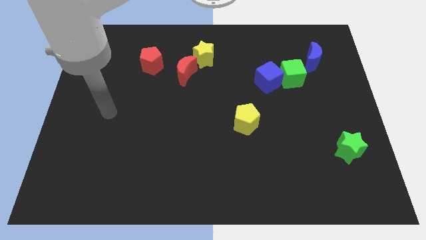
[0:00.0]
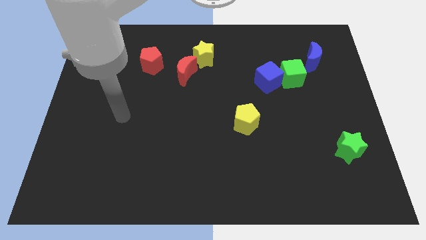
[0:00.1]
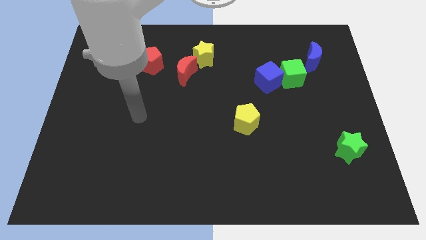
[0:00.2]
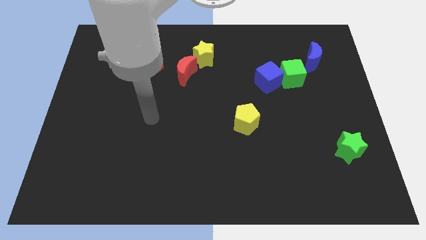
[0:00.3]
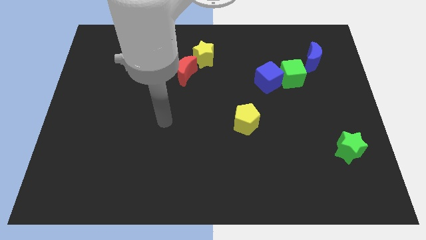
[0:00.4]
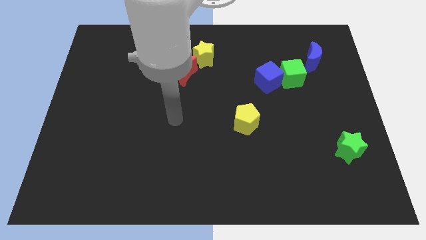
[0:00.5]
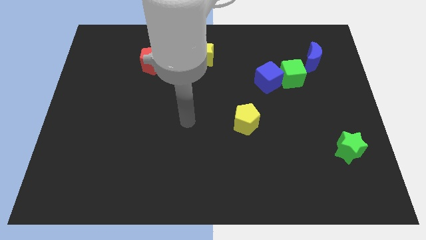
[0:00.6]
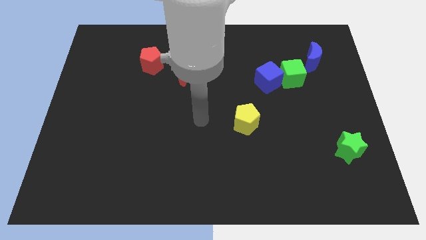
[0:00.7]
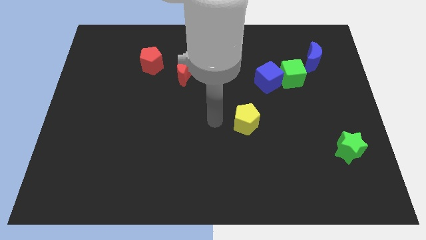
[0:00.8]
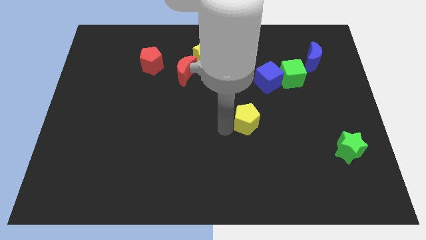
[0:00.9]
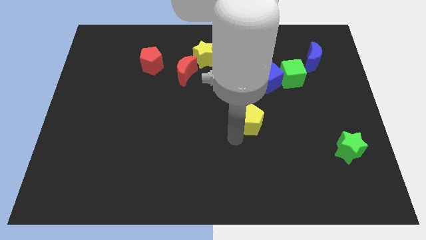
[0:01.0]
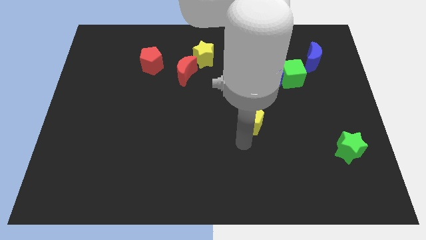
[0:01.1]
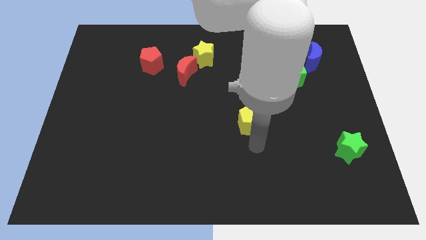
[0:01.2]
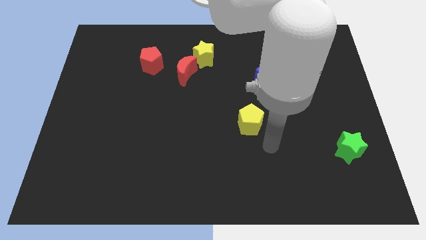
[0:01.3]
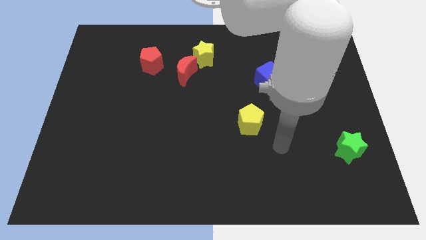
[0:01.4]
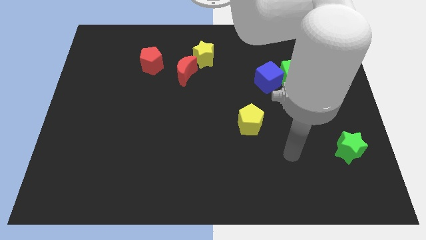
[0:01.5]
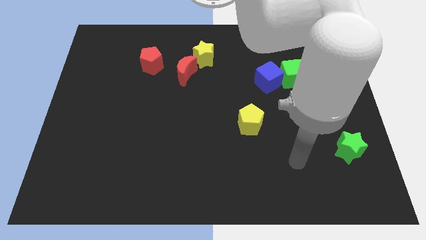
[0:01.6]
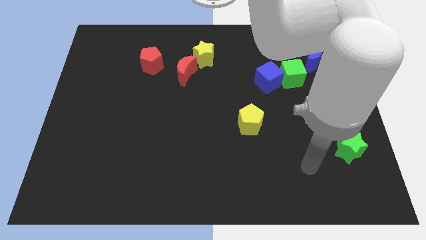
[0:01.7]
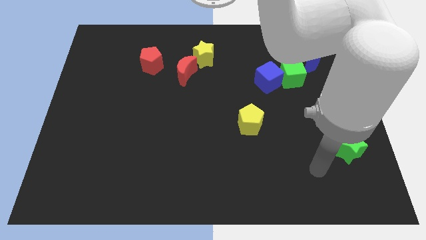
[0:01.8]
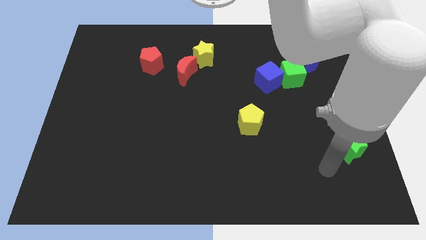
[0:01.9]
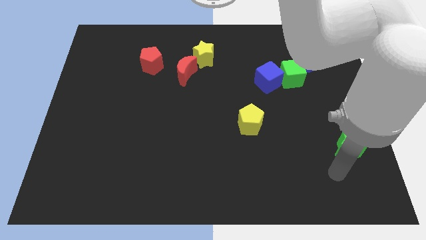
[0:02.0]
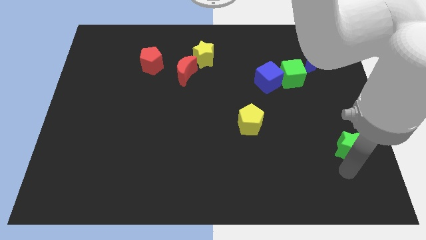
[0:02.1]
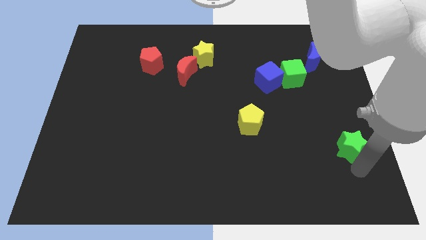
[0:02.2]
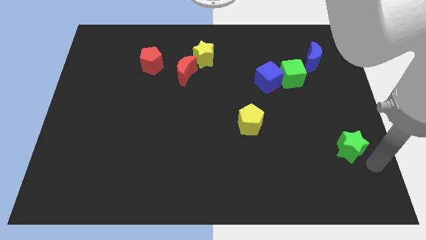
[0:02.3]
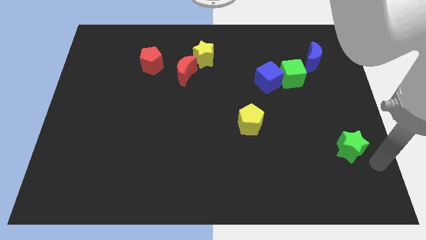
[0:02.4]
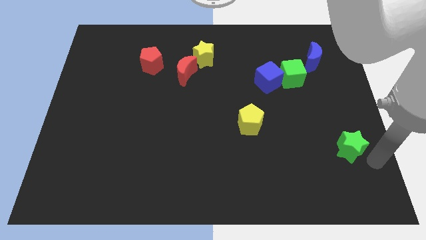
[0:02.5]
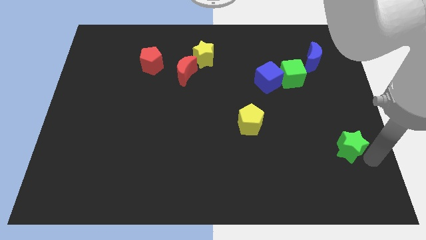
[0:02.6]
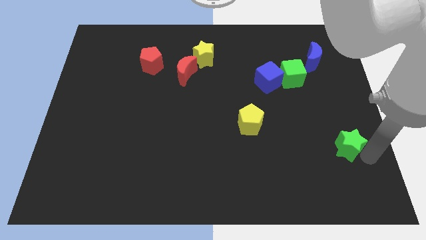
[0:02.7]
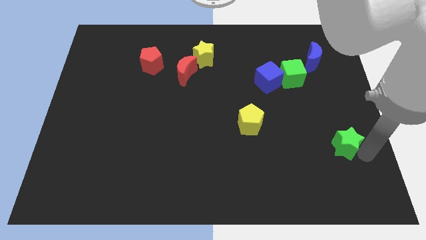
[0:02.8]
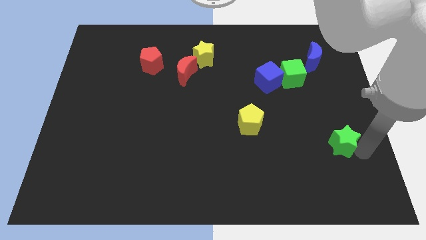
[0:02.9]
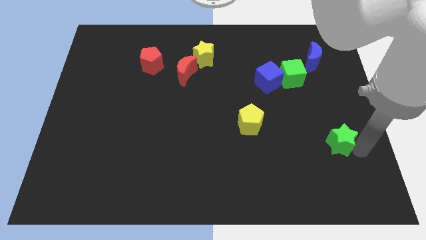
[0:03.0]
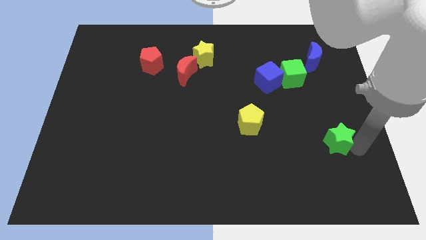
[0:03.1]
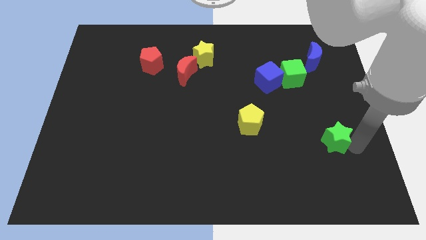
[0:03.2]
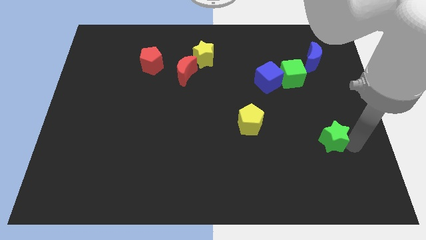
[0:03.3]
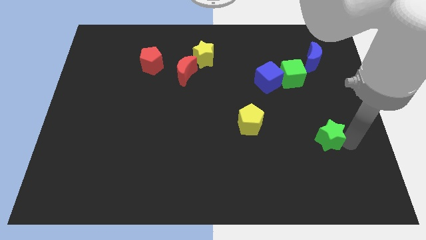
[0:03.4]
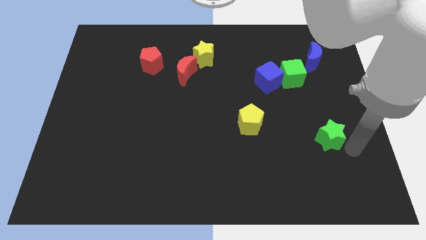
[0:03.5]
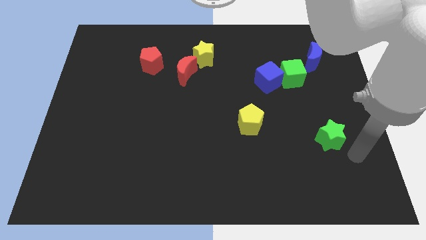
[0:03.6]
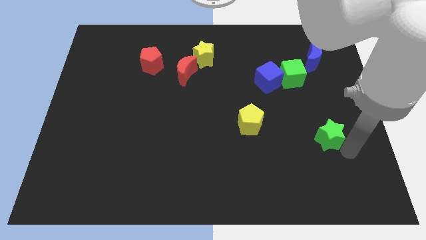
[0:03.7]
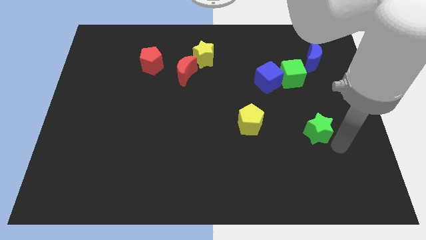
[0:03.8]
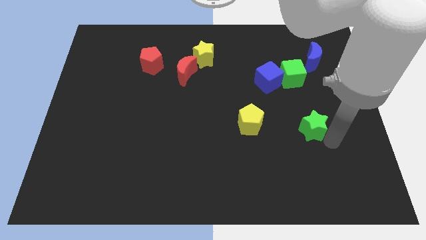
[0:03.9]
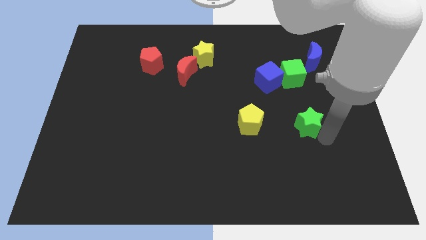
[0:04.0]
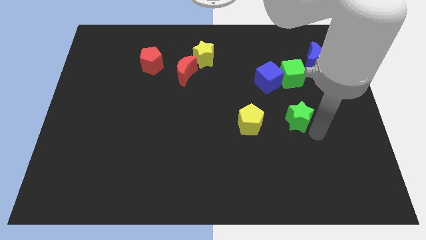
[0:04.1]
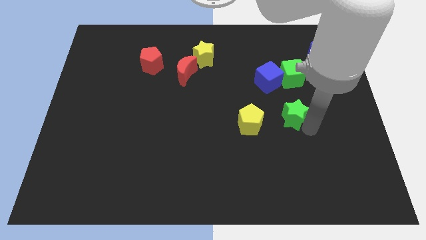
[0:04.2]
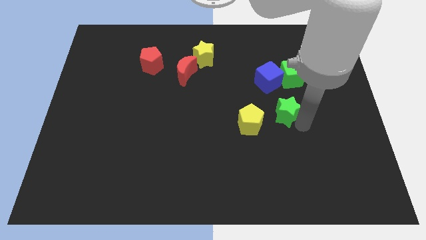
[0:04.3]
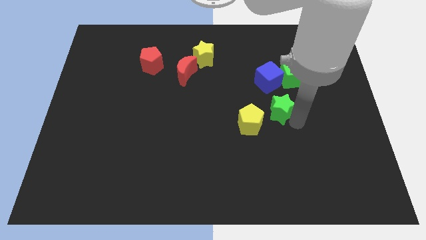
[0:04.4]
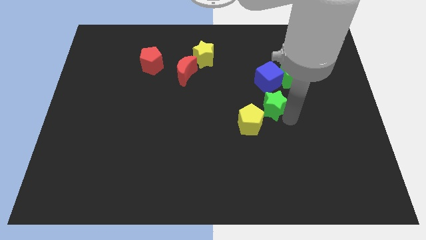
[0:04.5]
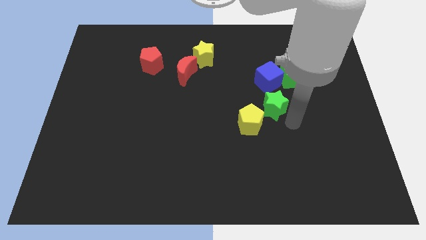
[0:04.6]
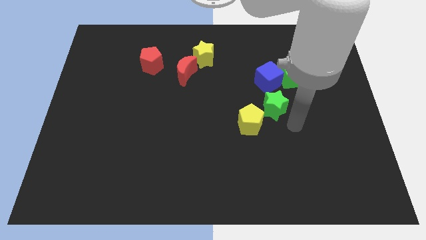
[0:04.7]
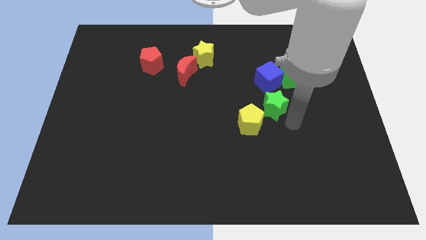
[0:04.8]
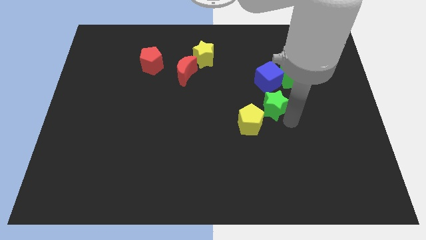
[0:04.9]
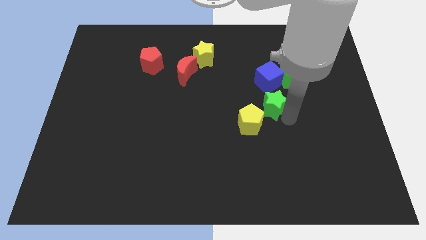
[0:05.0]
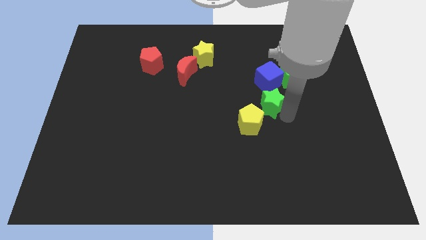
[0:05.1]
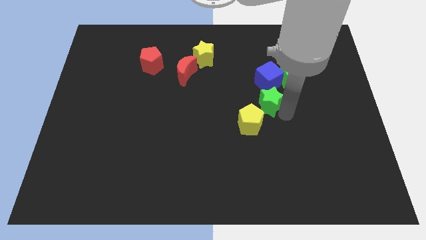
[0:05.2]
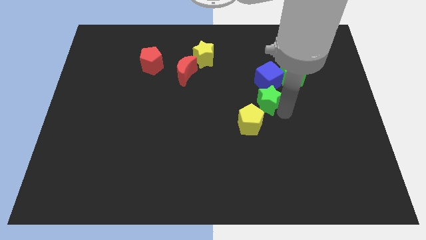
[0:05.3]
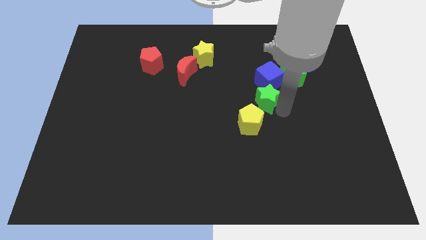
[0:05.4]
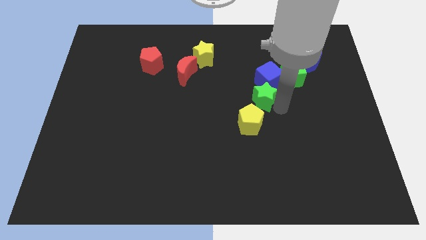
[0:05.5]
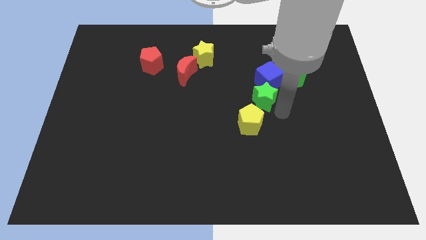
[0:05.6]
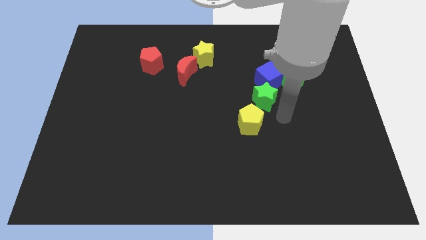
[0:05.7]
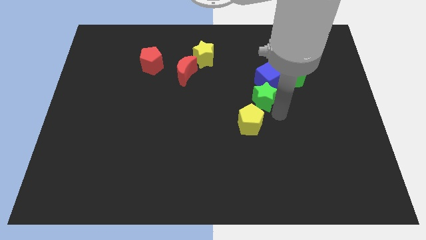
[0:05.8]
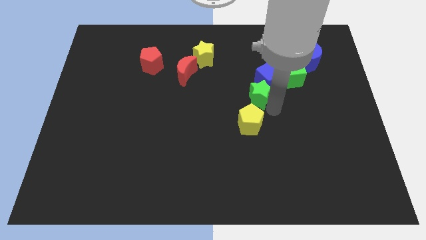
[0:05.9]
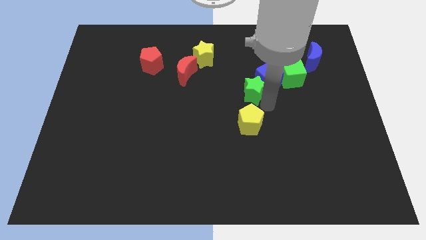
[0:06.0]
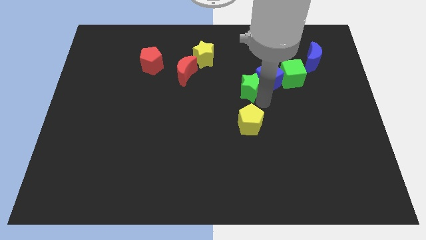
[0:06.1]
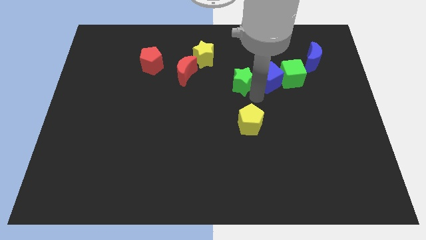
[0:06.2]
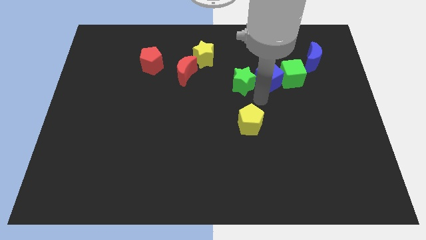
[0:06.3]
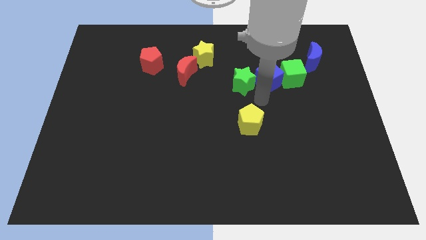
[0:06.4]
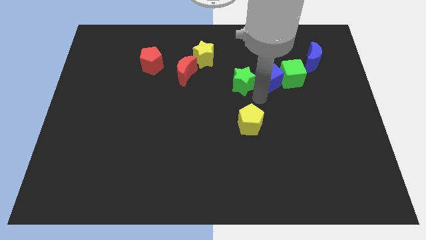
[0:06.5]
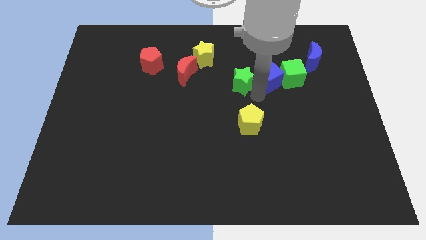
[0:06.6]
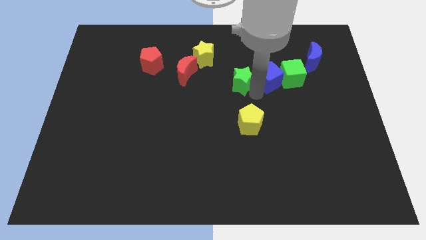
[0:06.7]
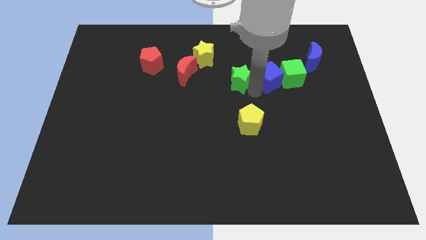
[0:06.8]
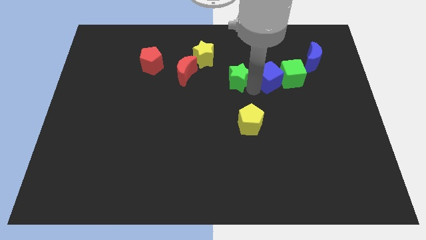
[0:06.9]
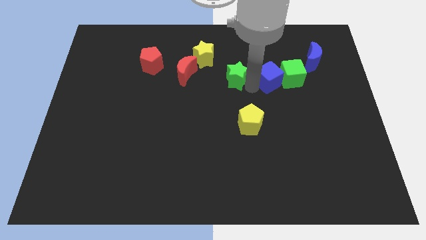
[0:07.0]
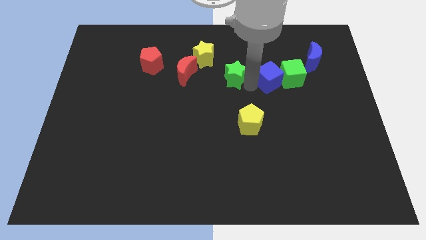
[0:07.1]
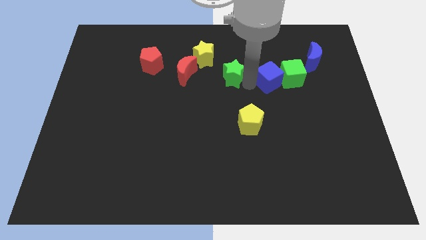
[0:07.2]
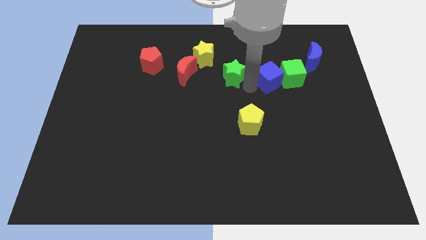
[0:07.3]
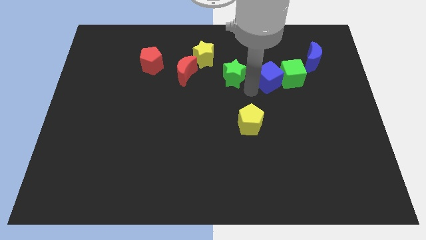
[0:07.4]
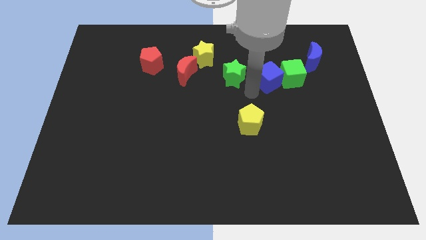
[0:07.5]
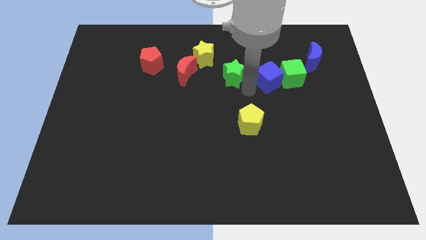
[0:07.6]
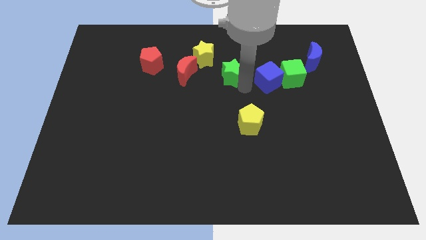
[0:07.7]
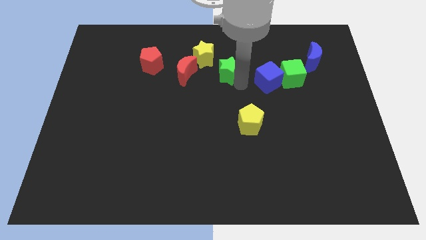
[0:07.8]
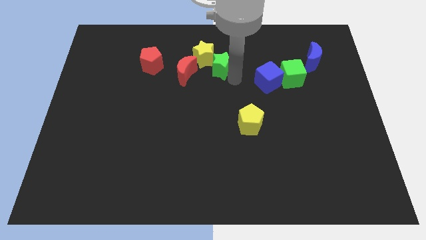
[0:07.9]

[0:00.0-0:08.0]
put the green star towards the yellow star
